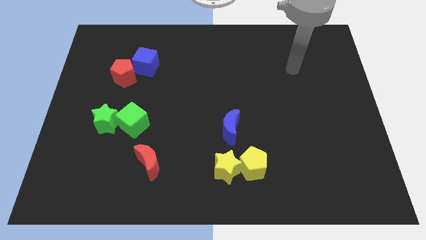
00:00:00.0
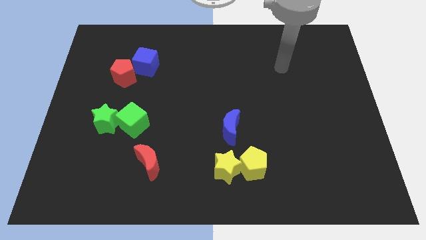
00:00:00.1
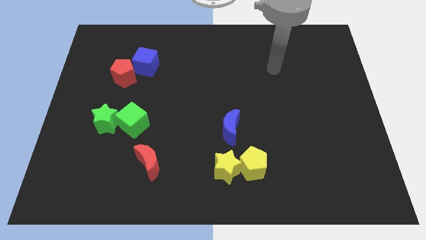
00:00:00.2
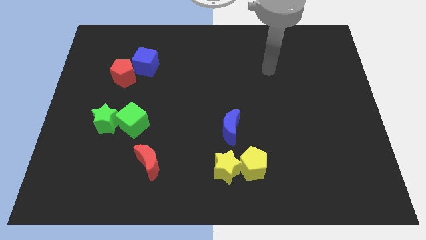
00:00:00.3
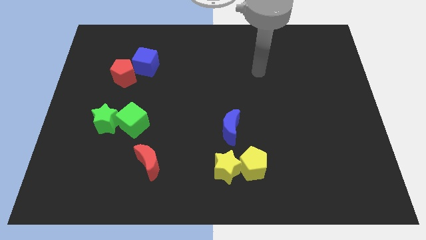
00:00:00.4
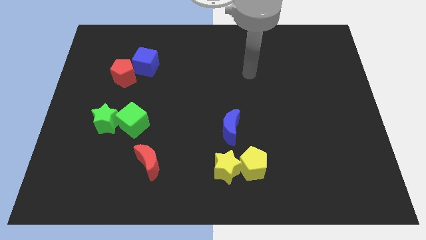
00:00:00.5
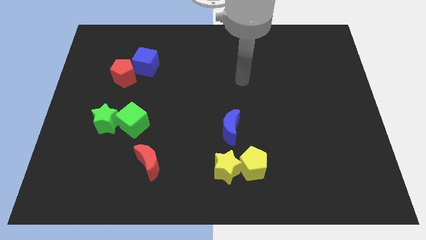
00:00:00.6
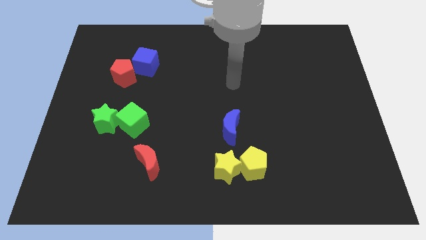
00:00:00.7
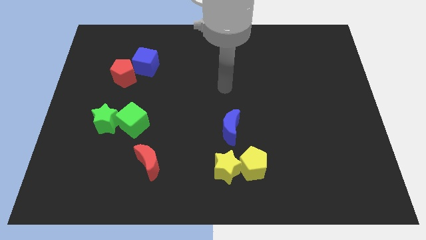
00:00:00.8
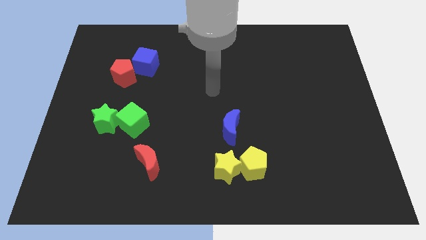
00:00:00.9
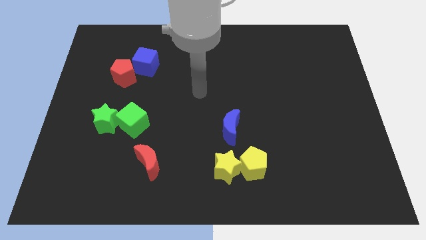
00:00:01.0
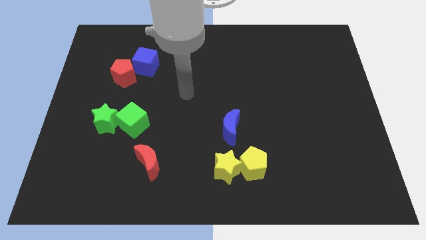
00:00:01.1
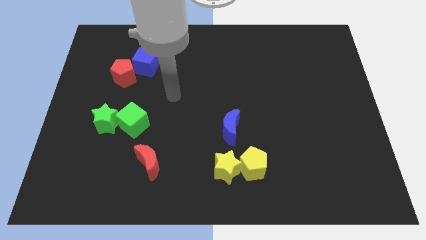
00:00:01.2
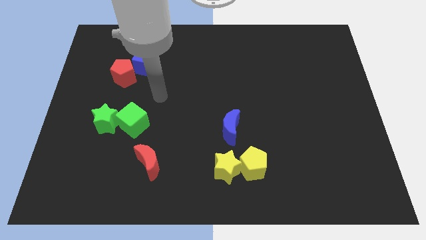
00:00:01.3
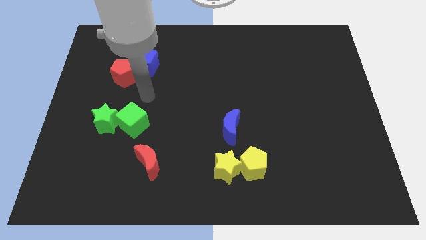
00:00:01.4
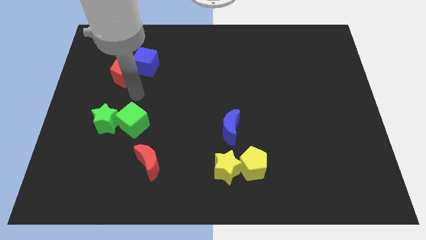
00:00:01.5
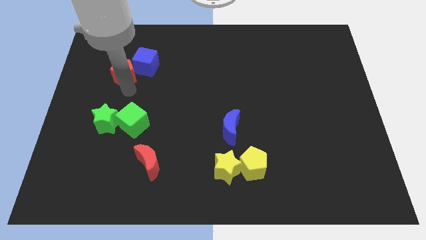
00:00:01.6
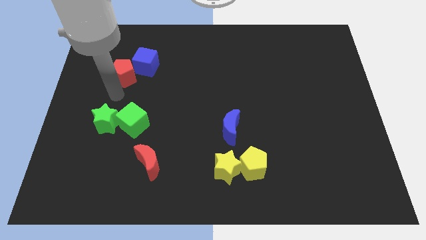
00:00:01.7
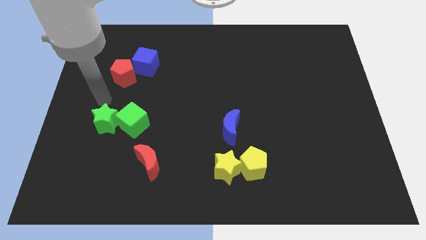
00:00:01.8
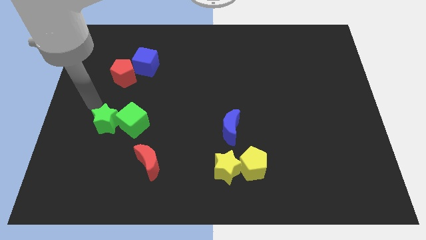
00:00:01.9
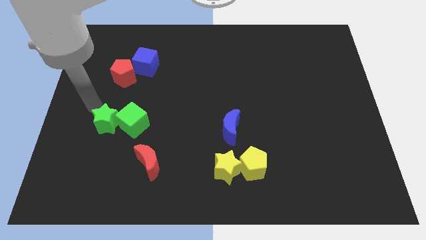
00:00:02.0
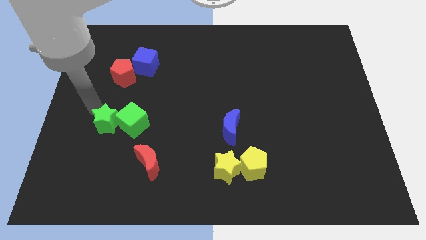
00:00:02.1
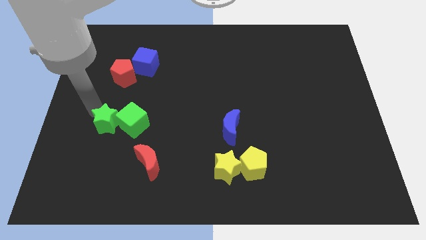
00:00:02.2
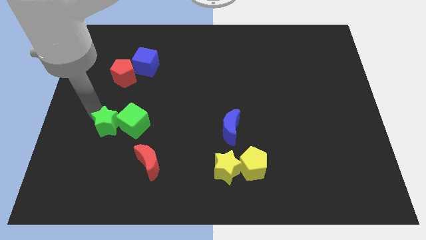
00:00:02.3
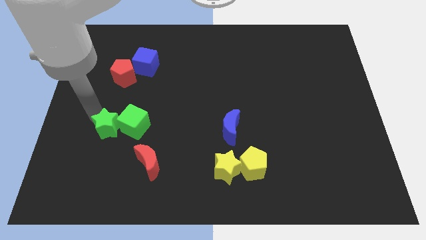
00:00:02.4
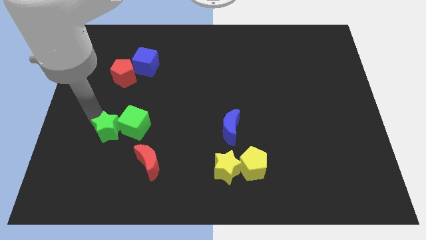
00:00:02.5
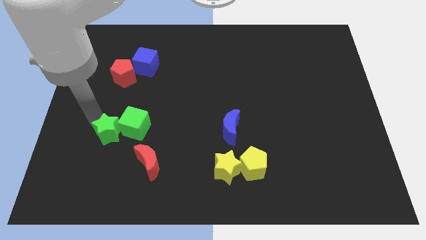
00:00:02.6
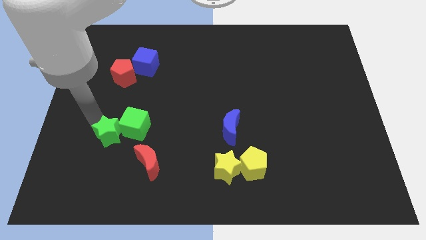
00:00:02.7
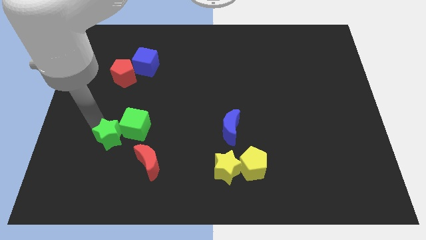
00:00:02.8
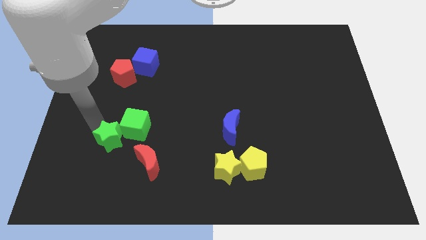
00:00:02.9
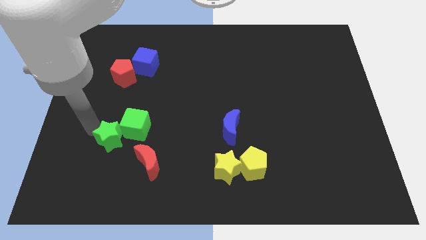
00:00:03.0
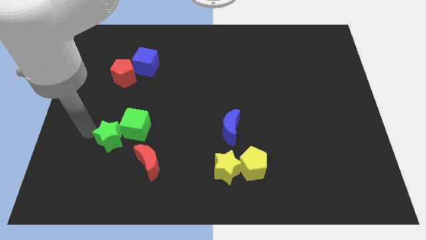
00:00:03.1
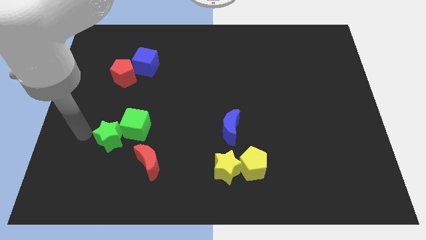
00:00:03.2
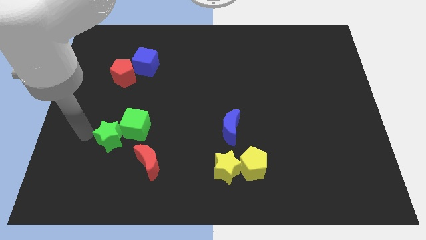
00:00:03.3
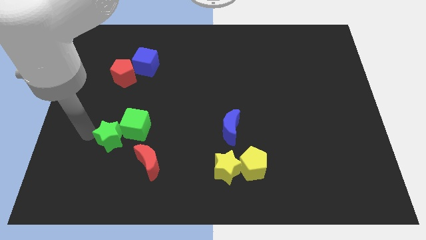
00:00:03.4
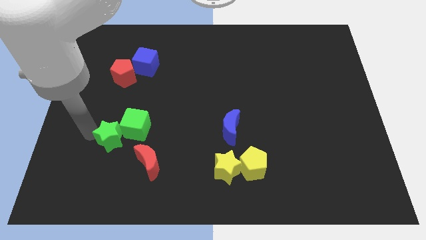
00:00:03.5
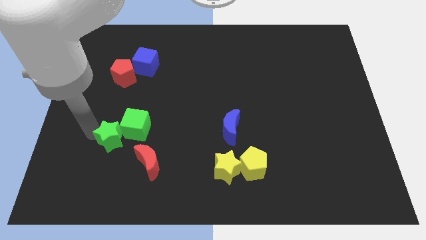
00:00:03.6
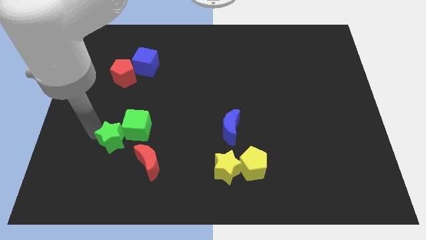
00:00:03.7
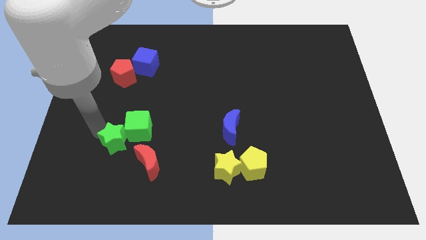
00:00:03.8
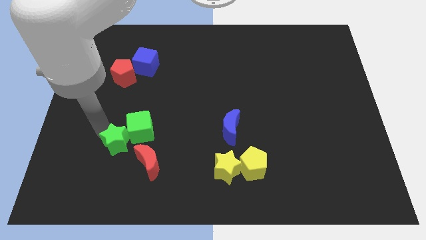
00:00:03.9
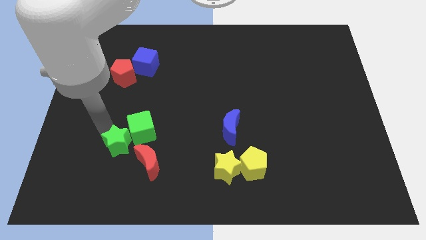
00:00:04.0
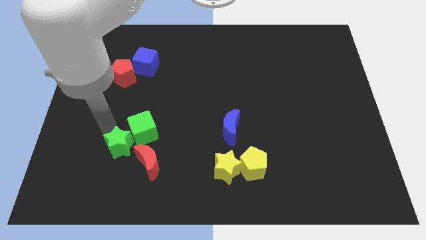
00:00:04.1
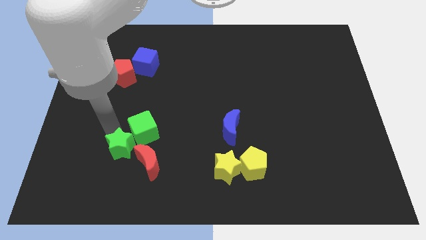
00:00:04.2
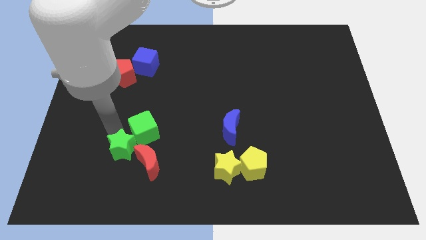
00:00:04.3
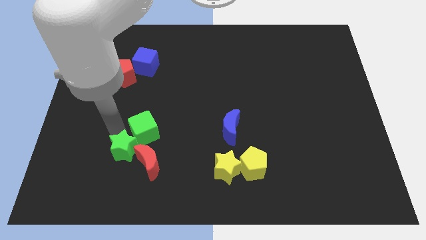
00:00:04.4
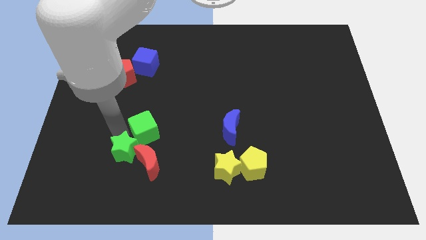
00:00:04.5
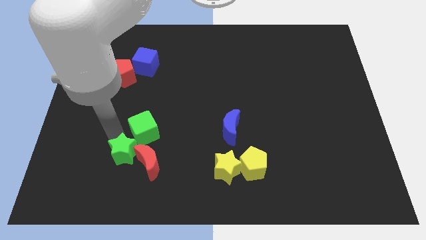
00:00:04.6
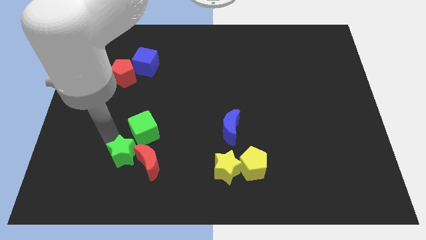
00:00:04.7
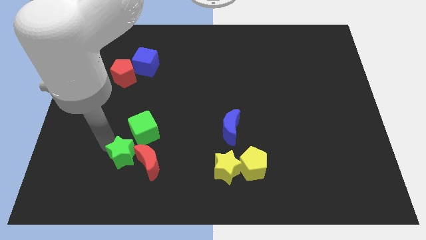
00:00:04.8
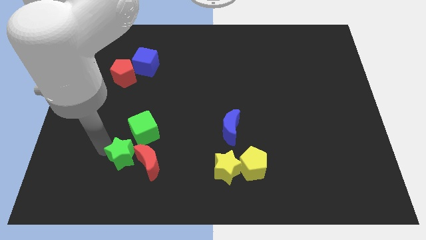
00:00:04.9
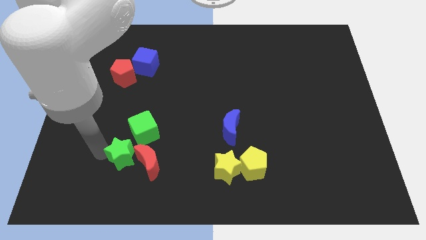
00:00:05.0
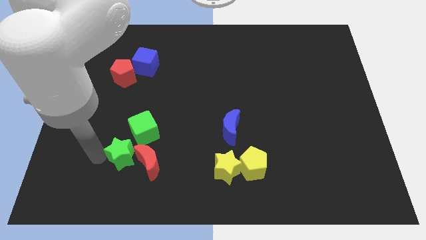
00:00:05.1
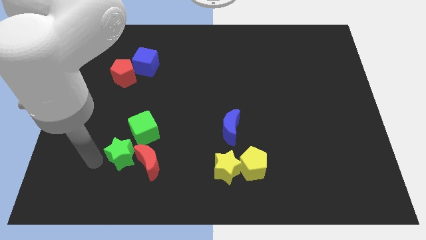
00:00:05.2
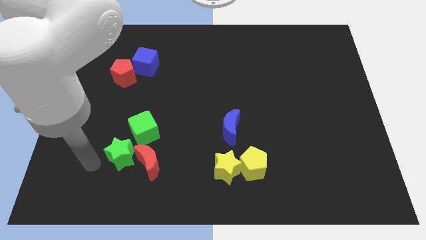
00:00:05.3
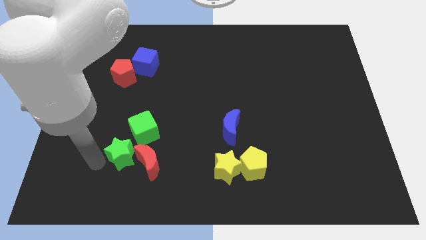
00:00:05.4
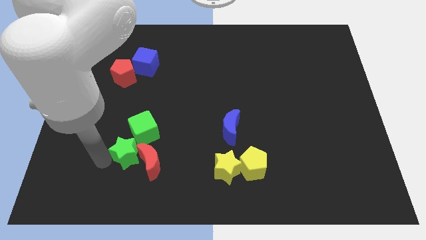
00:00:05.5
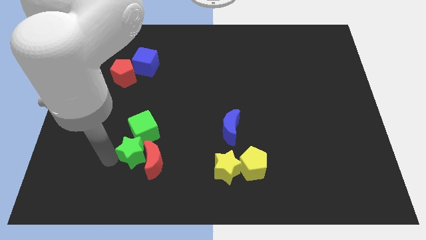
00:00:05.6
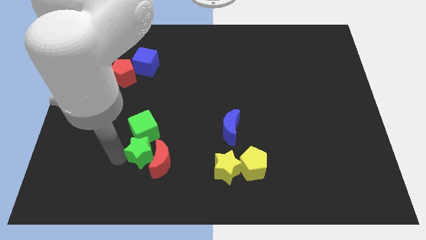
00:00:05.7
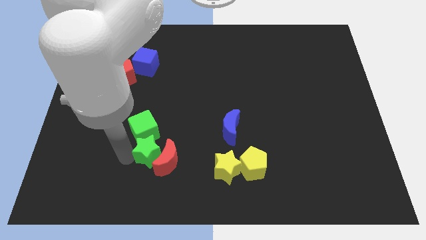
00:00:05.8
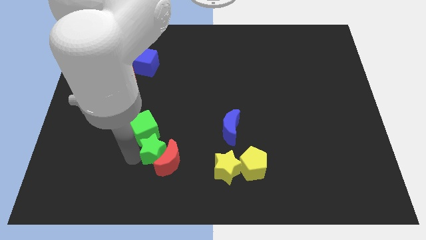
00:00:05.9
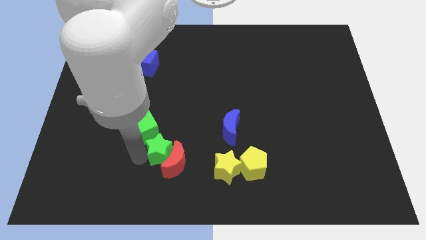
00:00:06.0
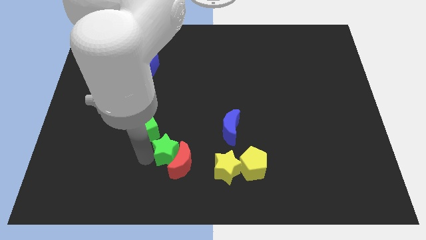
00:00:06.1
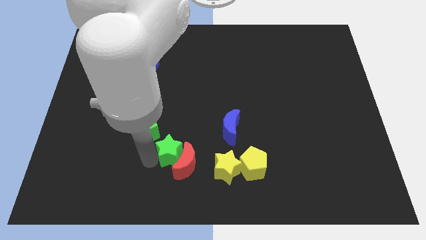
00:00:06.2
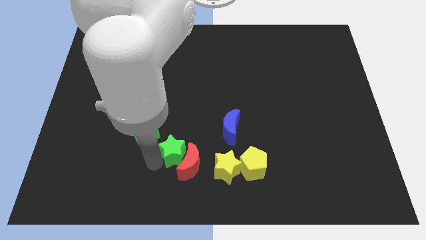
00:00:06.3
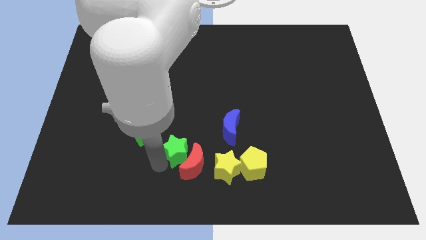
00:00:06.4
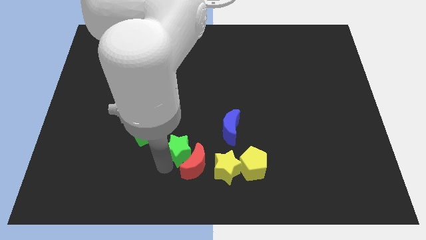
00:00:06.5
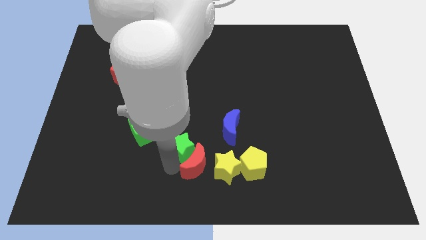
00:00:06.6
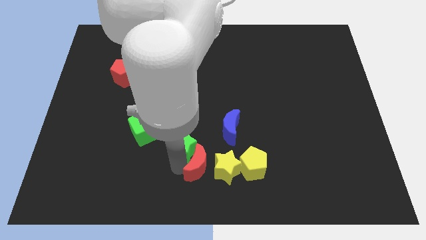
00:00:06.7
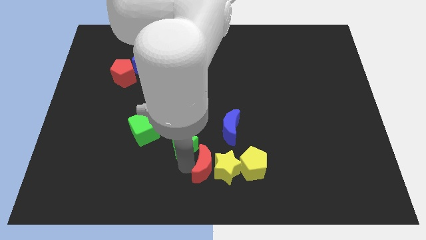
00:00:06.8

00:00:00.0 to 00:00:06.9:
move the green star to the left of the blue moon

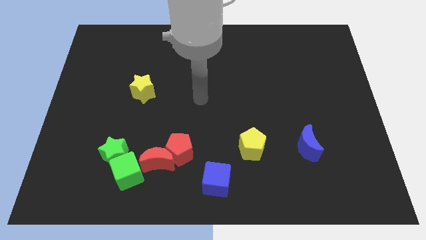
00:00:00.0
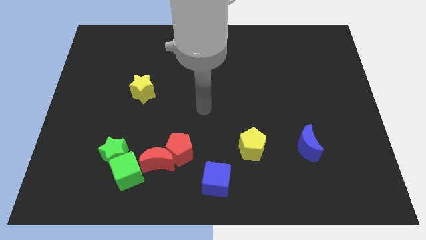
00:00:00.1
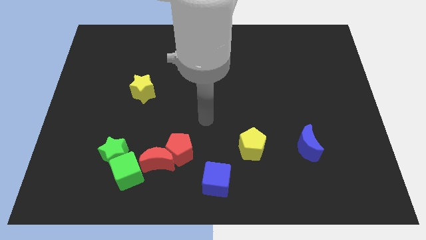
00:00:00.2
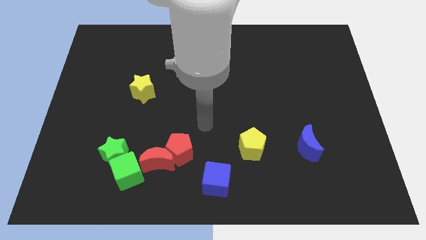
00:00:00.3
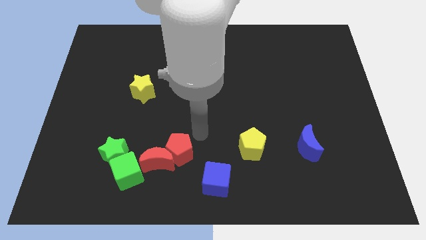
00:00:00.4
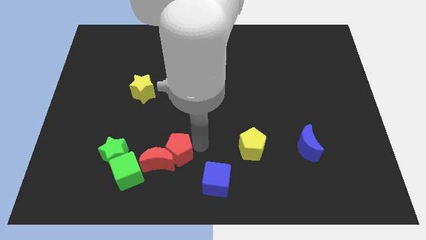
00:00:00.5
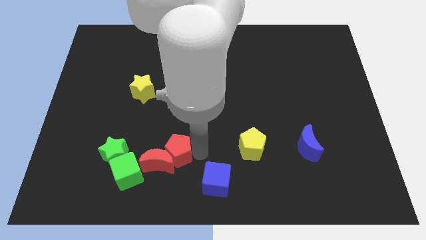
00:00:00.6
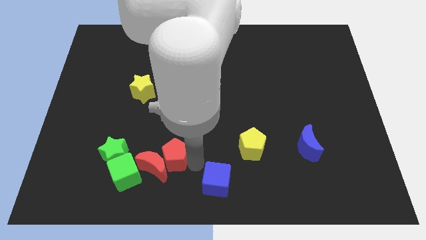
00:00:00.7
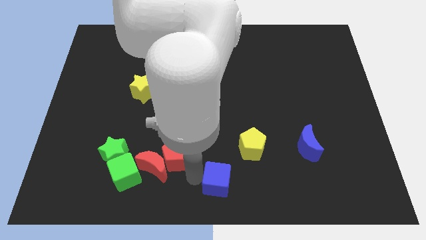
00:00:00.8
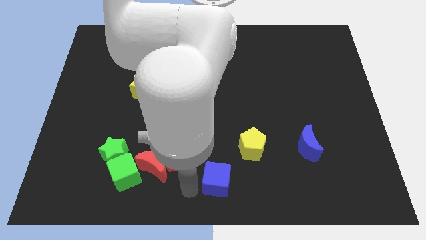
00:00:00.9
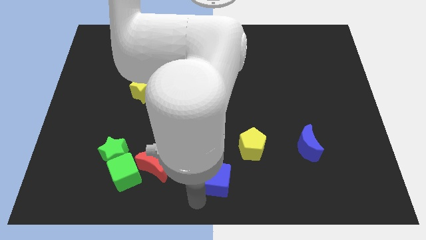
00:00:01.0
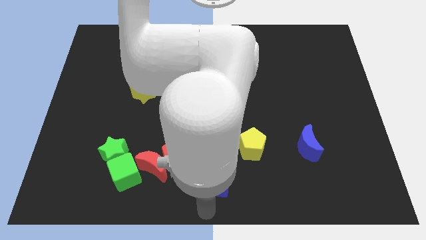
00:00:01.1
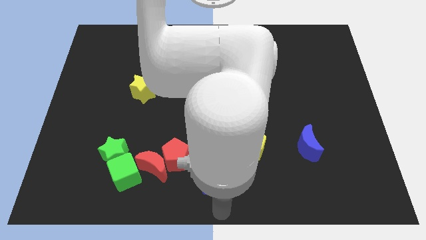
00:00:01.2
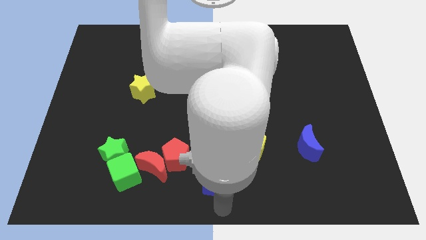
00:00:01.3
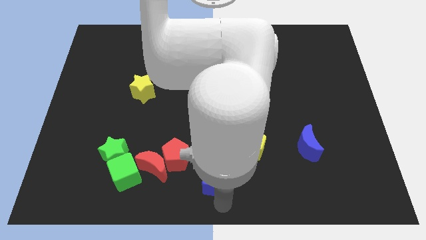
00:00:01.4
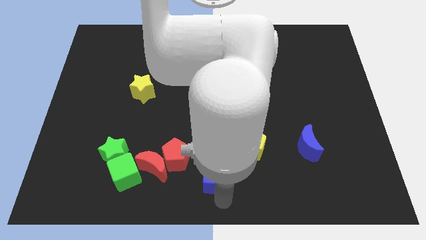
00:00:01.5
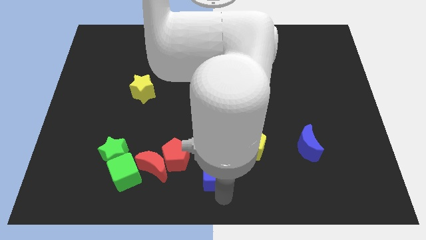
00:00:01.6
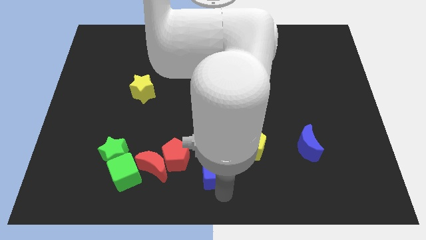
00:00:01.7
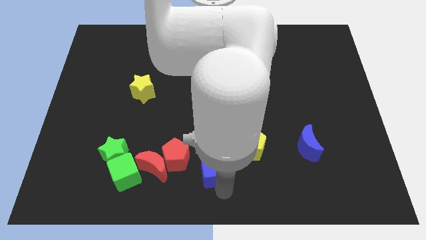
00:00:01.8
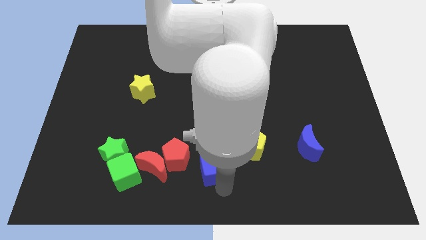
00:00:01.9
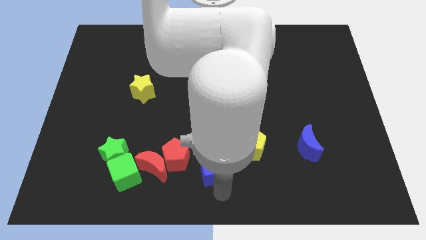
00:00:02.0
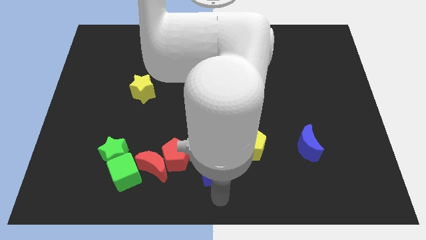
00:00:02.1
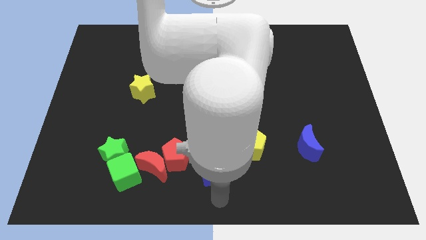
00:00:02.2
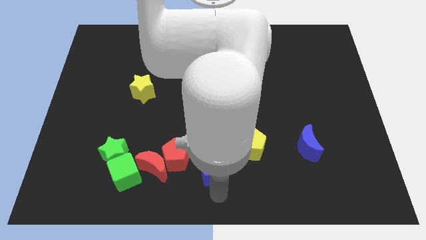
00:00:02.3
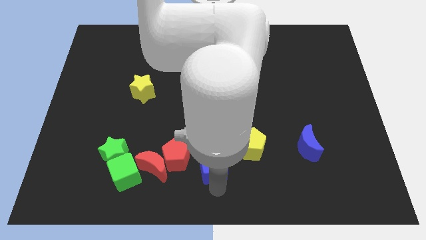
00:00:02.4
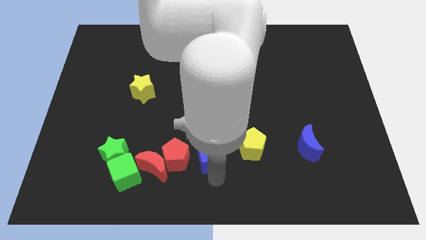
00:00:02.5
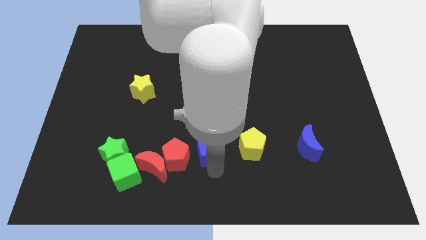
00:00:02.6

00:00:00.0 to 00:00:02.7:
slide the blue cube to the top right side of the red pentagon
